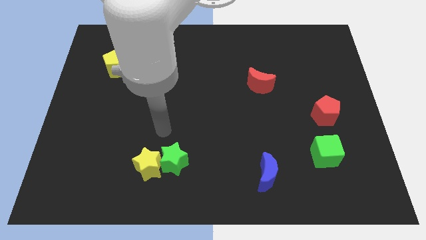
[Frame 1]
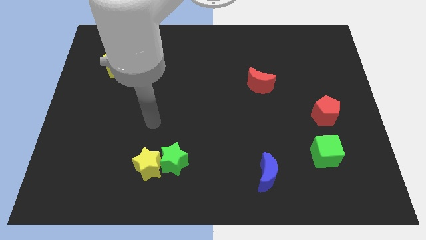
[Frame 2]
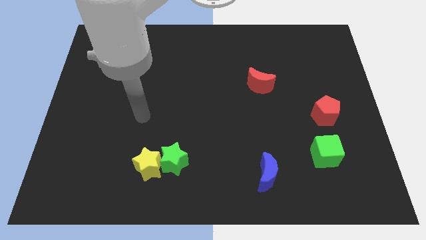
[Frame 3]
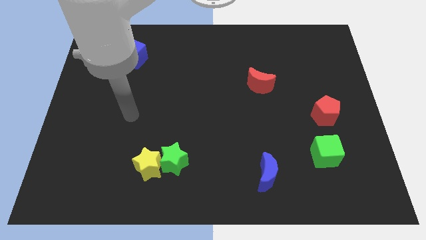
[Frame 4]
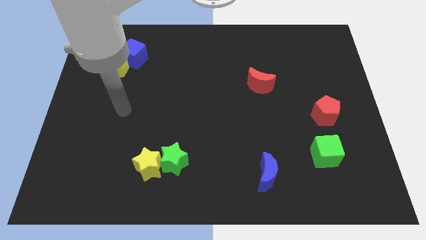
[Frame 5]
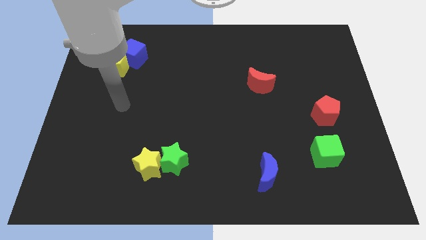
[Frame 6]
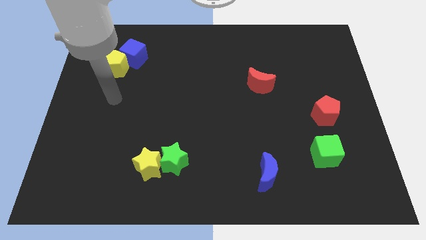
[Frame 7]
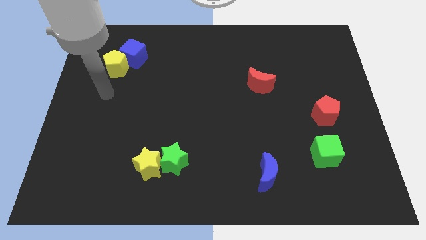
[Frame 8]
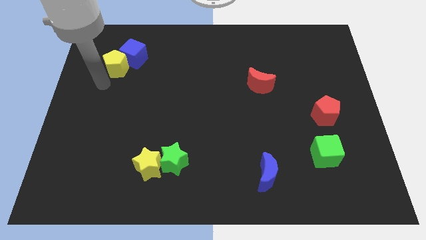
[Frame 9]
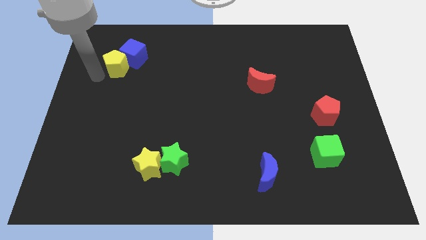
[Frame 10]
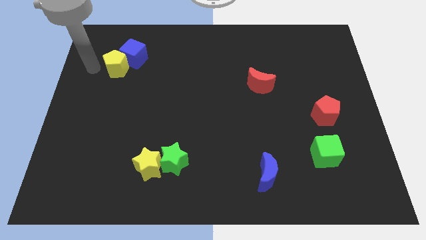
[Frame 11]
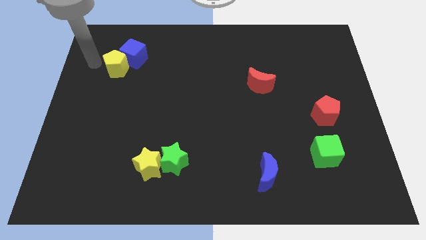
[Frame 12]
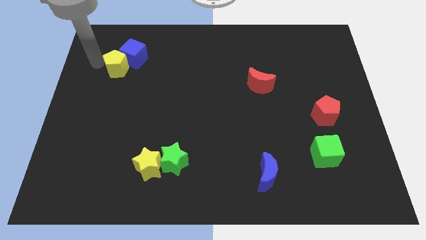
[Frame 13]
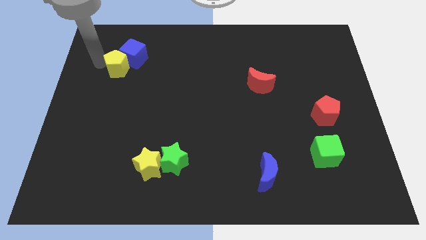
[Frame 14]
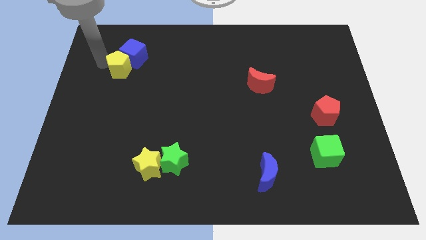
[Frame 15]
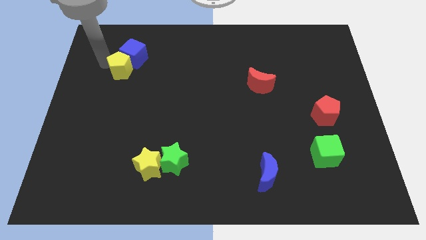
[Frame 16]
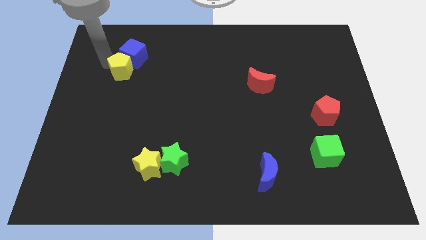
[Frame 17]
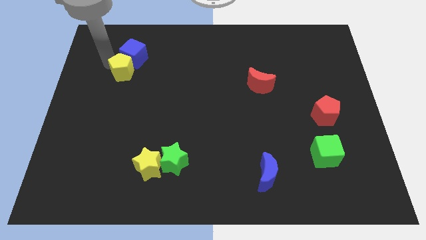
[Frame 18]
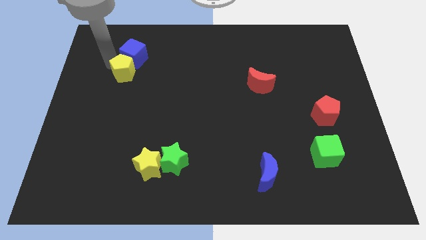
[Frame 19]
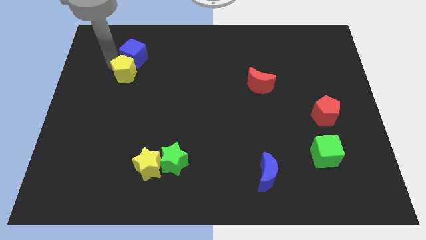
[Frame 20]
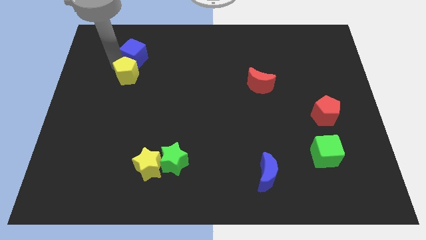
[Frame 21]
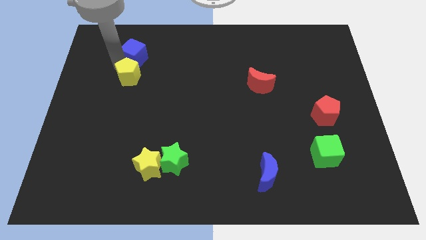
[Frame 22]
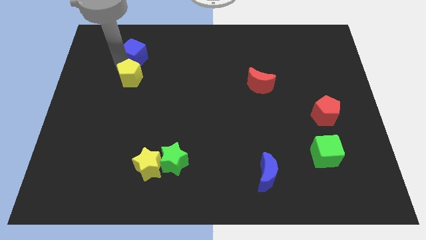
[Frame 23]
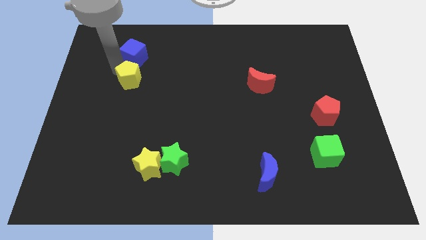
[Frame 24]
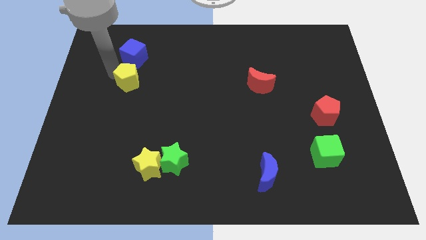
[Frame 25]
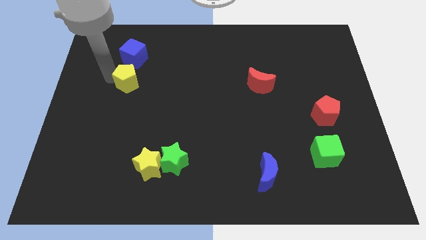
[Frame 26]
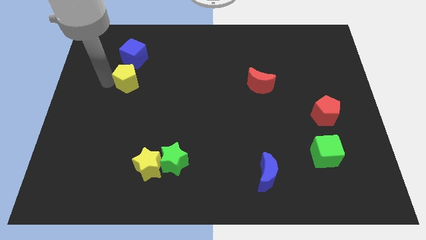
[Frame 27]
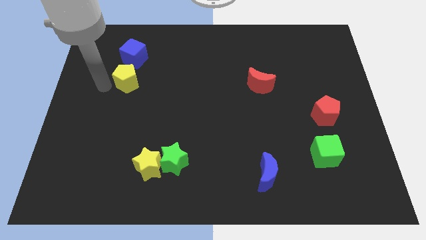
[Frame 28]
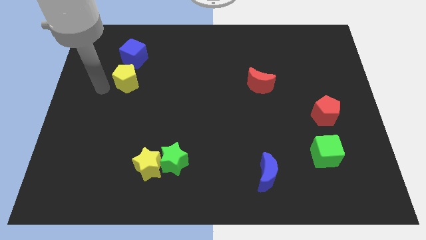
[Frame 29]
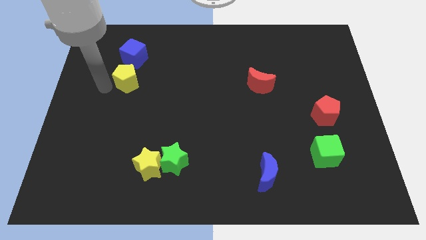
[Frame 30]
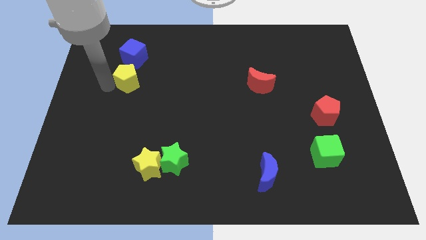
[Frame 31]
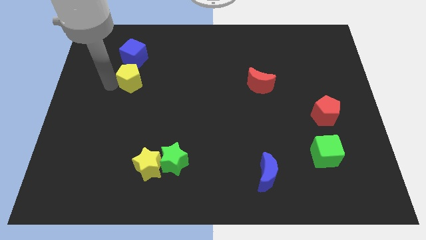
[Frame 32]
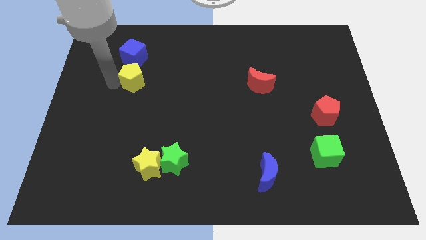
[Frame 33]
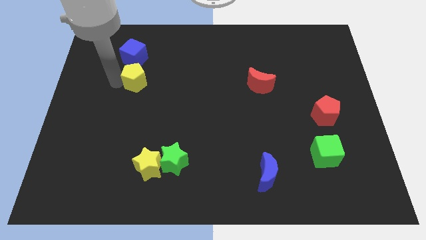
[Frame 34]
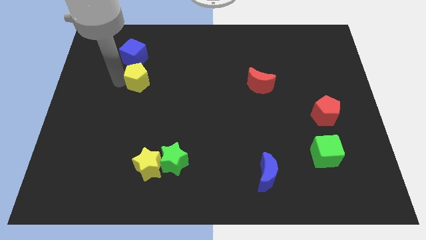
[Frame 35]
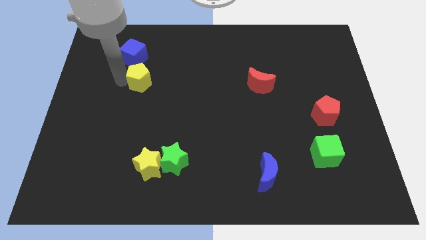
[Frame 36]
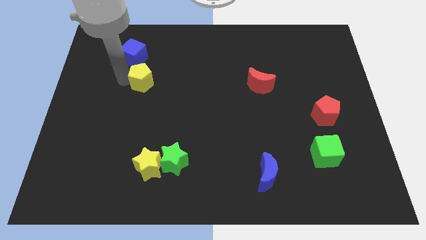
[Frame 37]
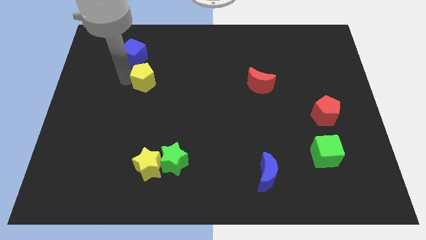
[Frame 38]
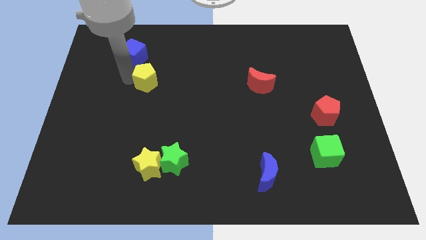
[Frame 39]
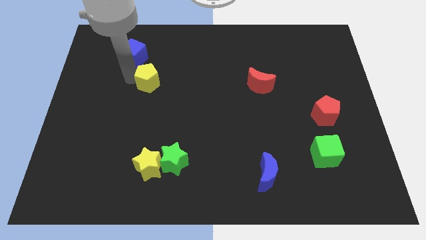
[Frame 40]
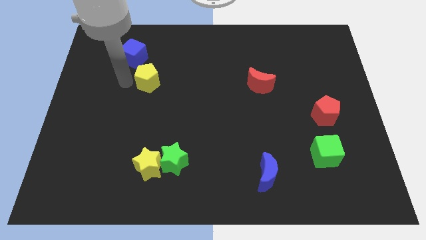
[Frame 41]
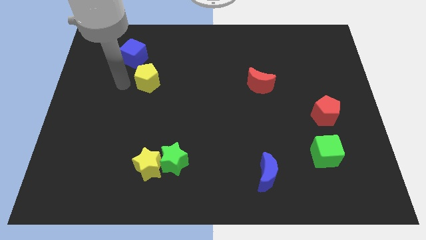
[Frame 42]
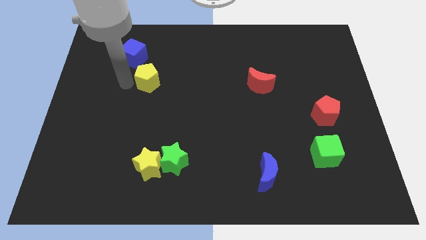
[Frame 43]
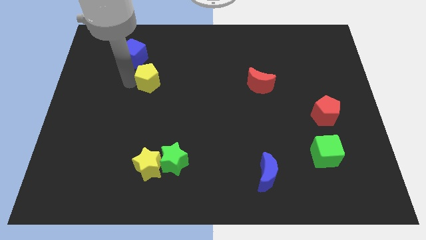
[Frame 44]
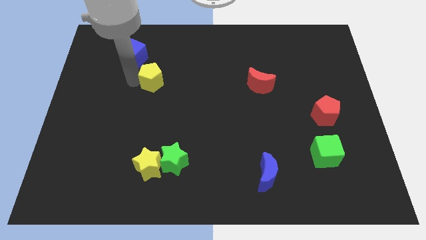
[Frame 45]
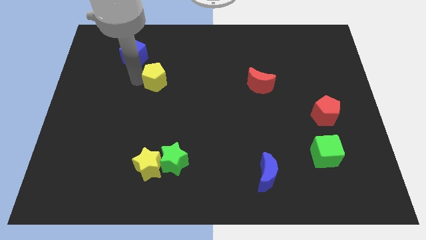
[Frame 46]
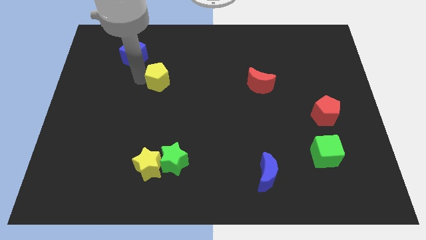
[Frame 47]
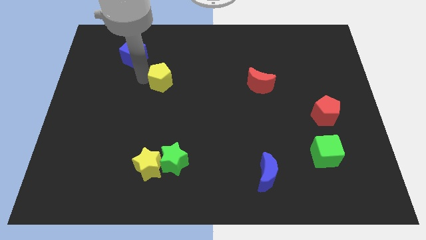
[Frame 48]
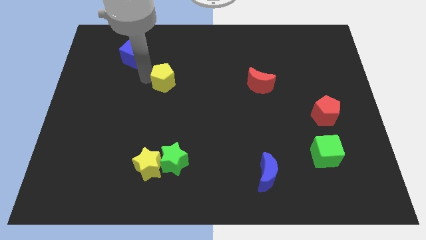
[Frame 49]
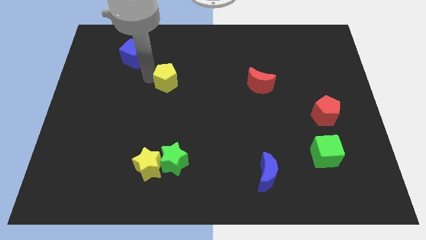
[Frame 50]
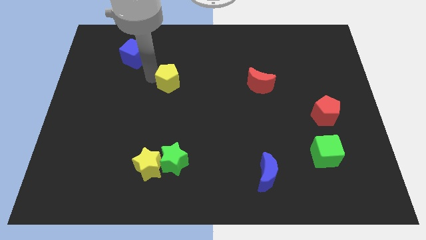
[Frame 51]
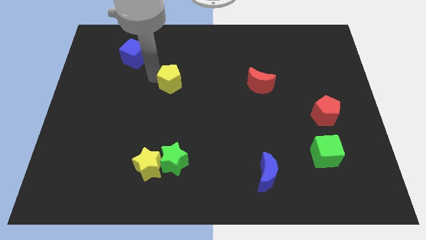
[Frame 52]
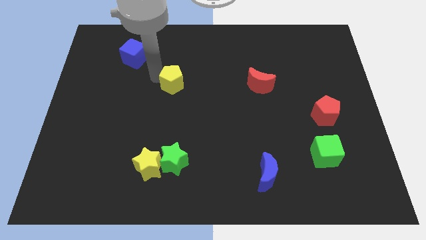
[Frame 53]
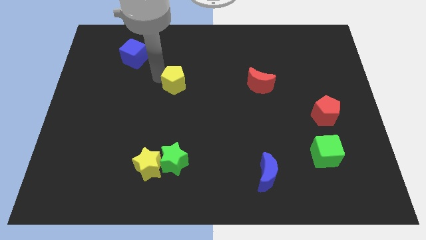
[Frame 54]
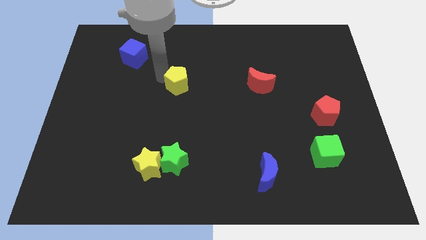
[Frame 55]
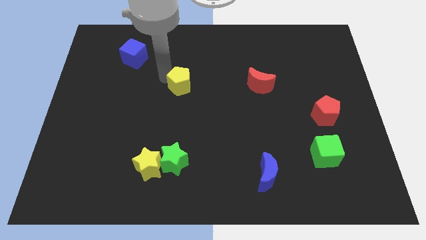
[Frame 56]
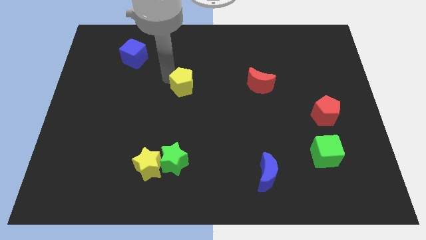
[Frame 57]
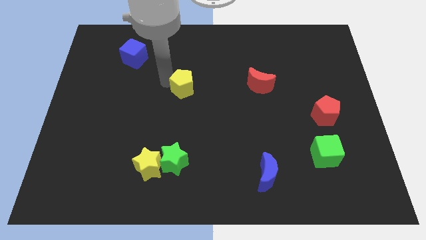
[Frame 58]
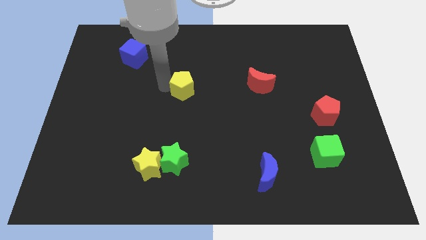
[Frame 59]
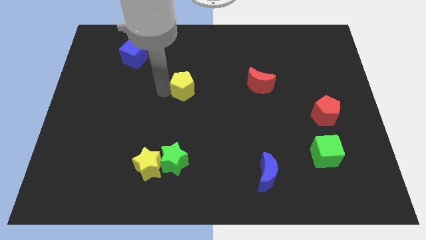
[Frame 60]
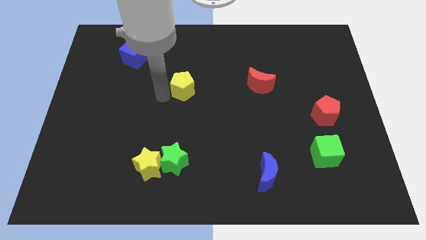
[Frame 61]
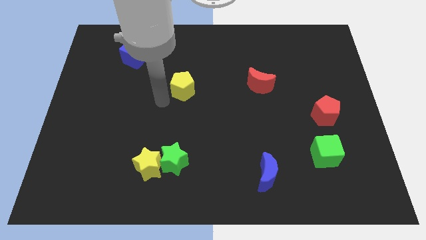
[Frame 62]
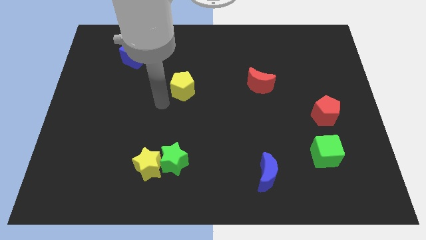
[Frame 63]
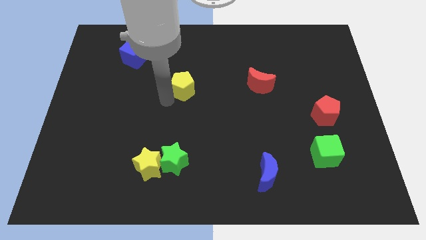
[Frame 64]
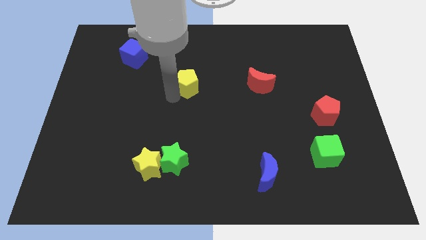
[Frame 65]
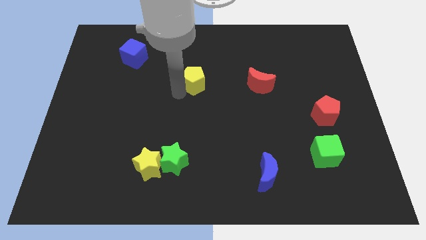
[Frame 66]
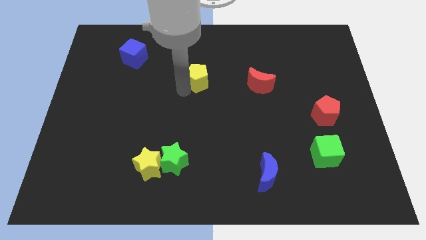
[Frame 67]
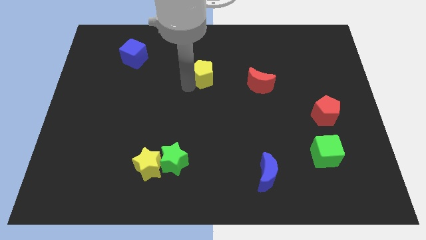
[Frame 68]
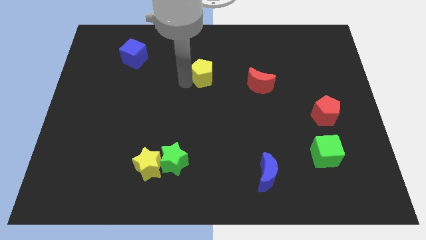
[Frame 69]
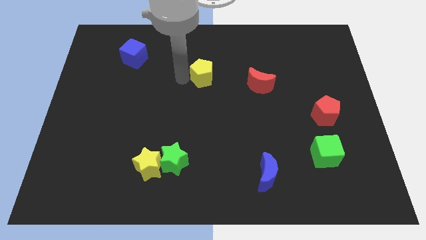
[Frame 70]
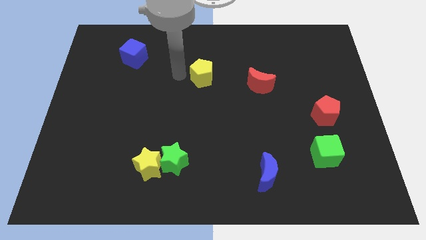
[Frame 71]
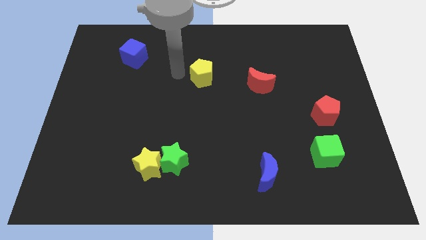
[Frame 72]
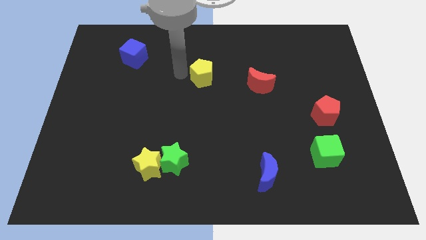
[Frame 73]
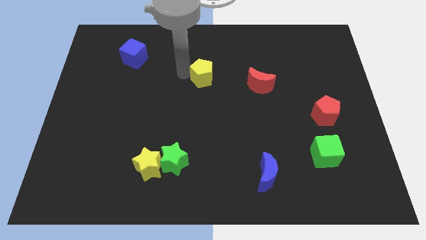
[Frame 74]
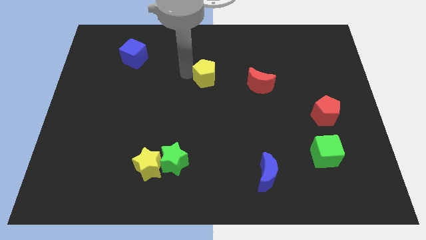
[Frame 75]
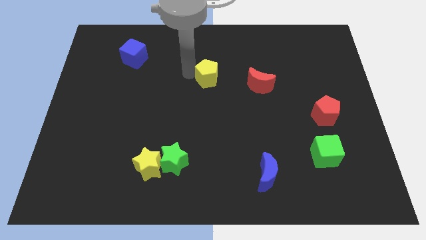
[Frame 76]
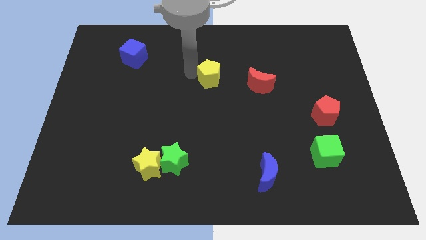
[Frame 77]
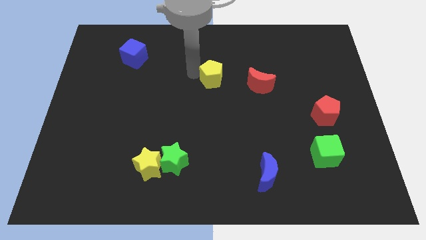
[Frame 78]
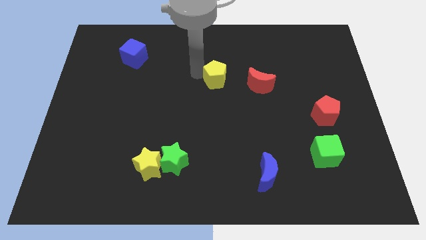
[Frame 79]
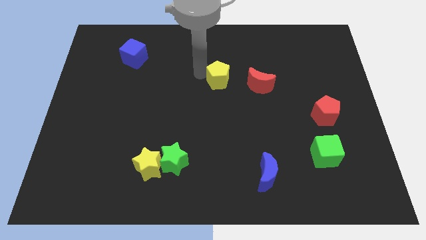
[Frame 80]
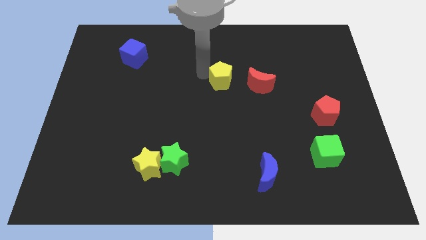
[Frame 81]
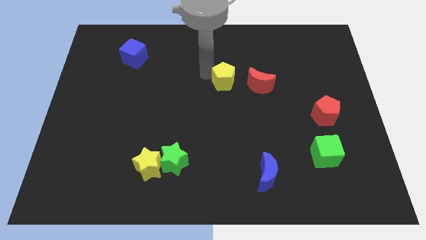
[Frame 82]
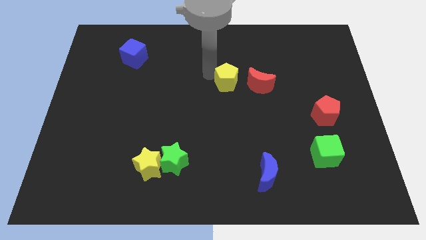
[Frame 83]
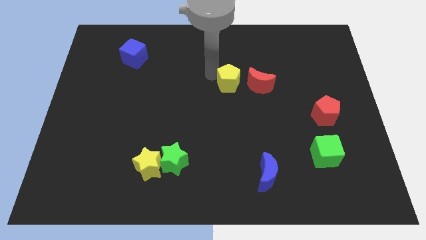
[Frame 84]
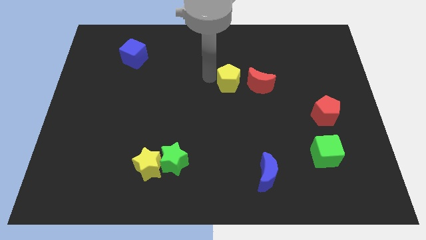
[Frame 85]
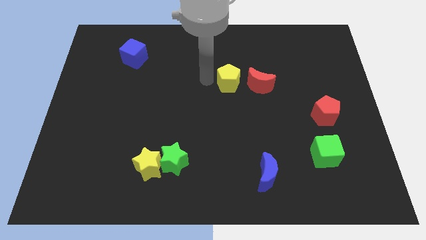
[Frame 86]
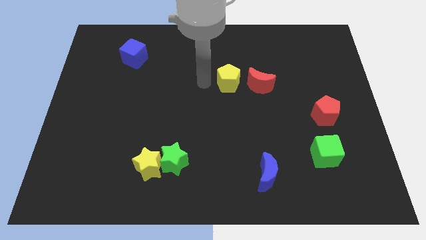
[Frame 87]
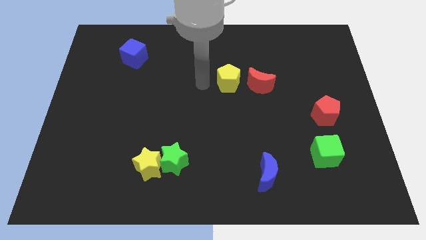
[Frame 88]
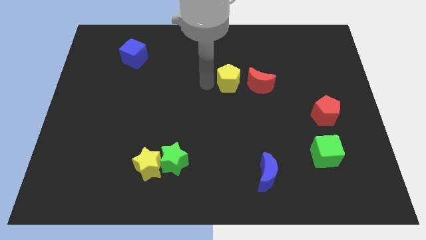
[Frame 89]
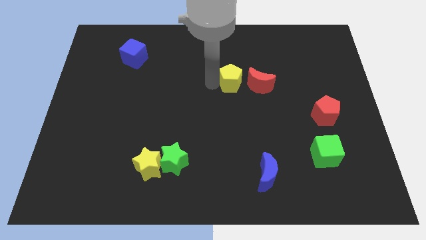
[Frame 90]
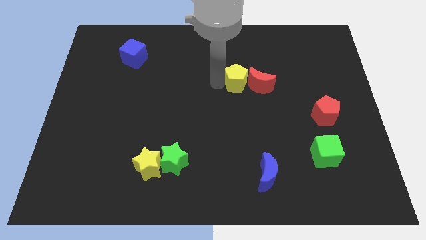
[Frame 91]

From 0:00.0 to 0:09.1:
push the yellow pentagon to the red moon
